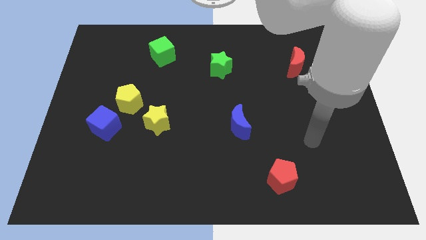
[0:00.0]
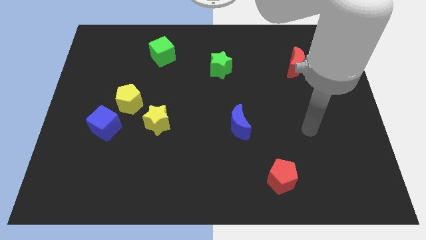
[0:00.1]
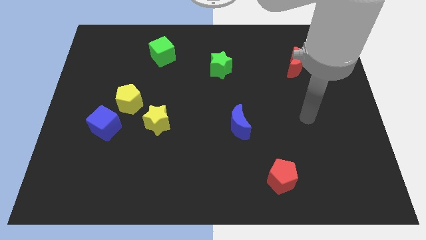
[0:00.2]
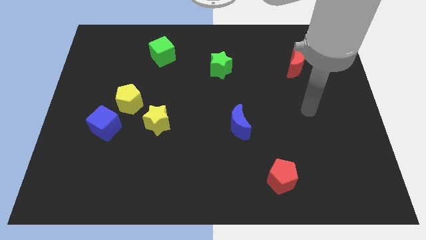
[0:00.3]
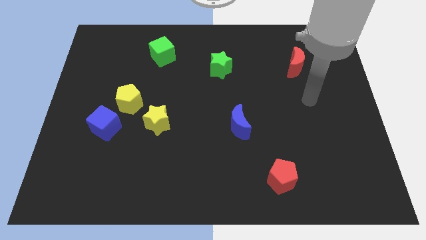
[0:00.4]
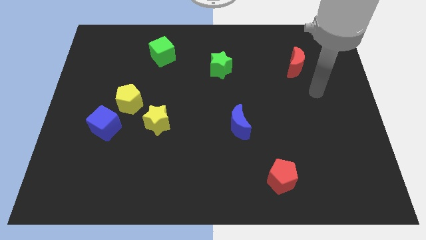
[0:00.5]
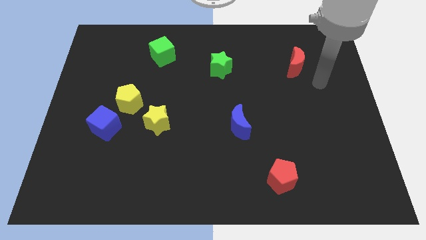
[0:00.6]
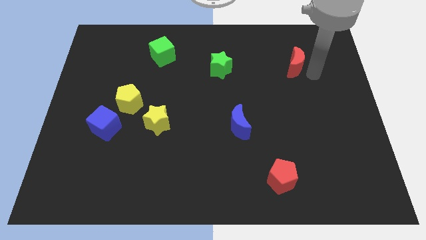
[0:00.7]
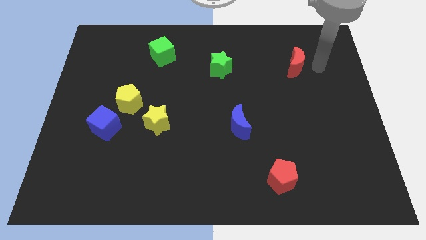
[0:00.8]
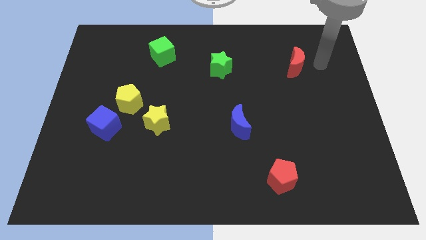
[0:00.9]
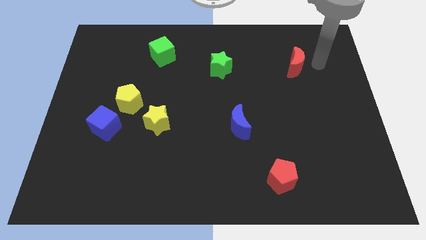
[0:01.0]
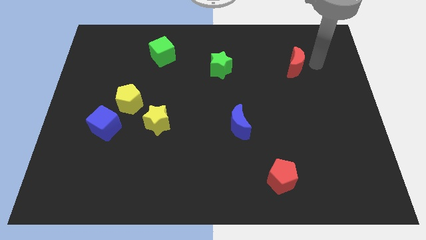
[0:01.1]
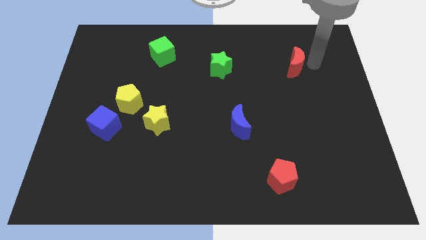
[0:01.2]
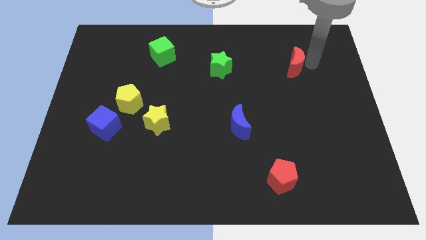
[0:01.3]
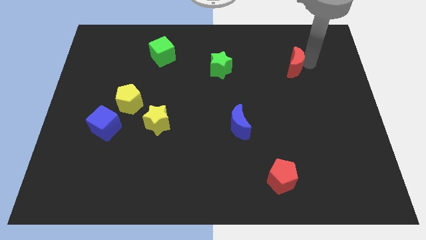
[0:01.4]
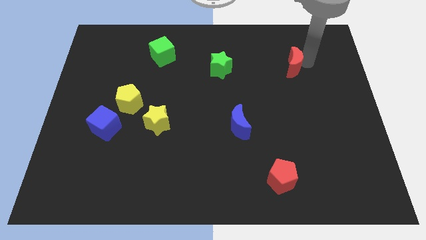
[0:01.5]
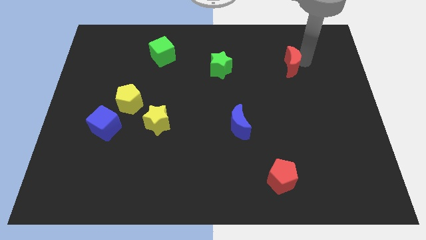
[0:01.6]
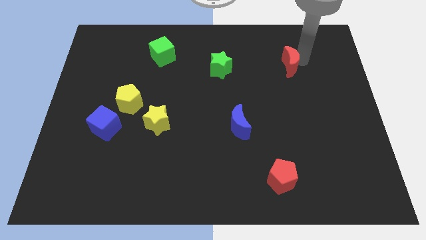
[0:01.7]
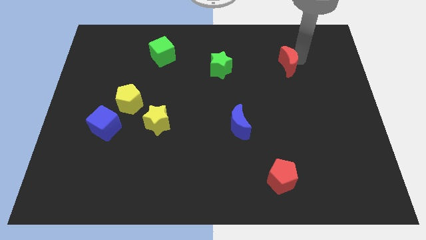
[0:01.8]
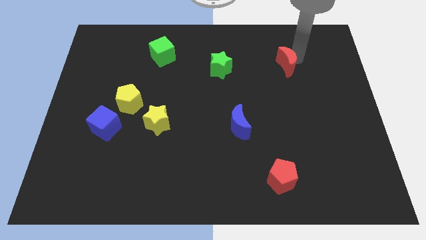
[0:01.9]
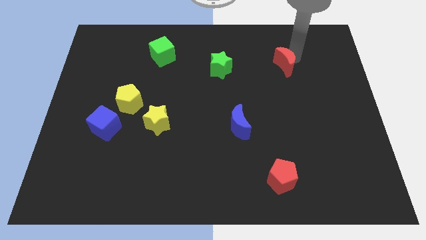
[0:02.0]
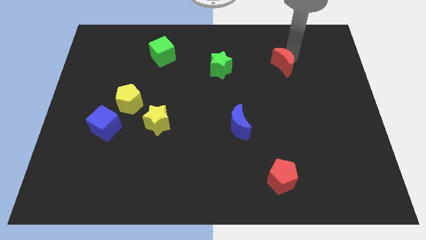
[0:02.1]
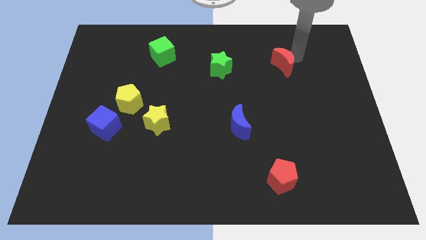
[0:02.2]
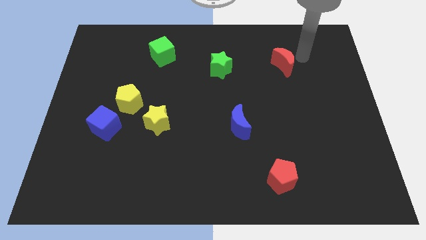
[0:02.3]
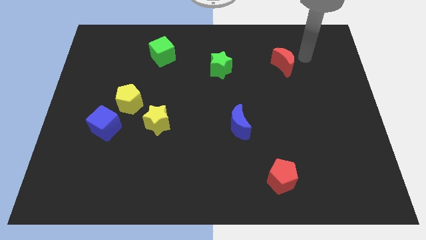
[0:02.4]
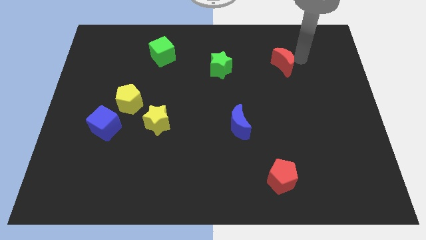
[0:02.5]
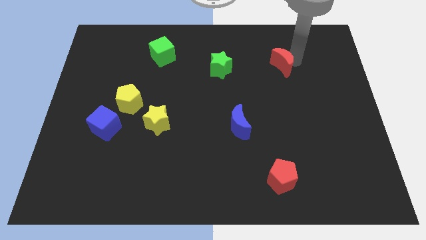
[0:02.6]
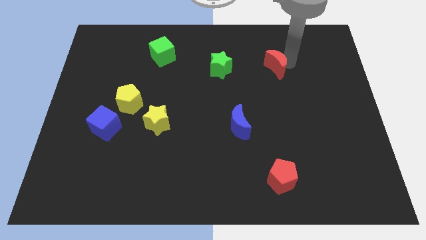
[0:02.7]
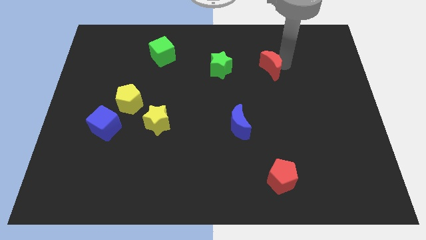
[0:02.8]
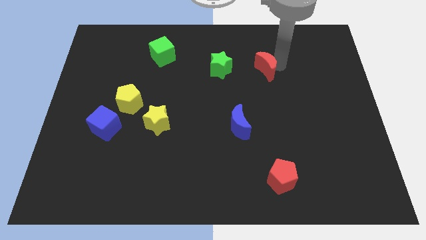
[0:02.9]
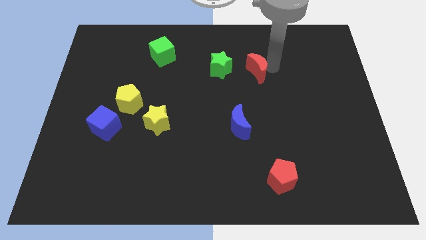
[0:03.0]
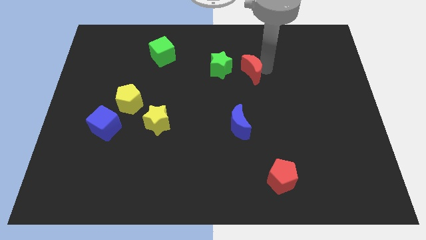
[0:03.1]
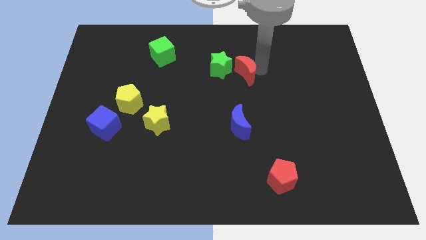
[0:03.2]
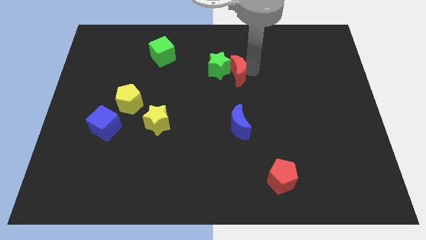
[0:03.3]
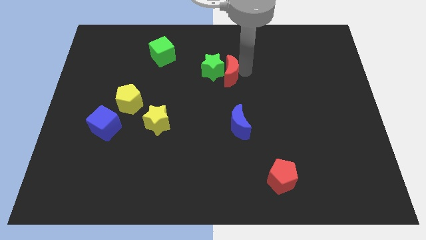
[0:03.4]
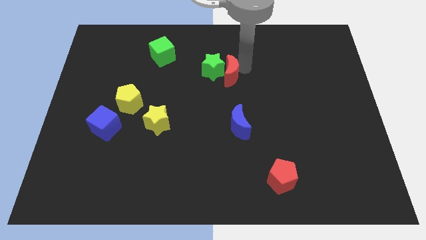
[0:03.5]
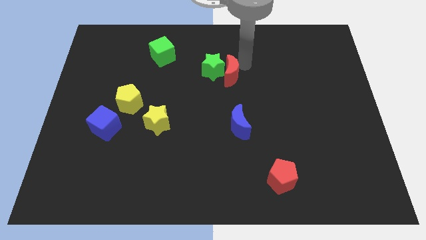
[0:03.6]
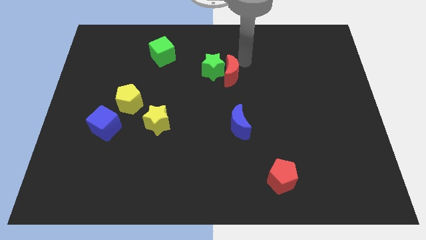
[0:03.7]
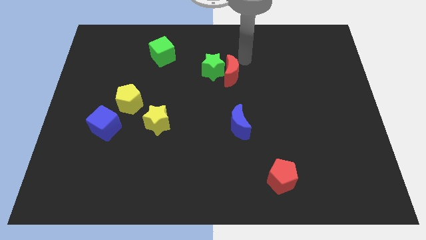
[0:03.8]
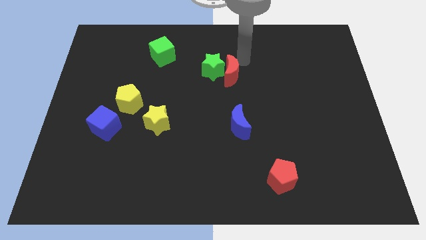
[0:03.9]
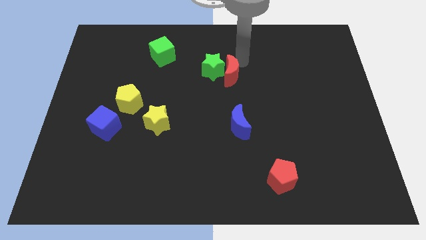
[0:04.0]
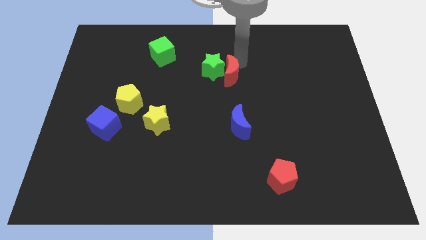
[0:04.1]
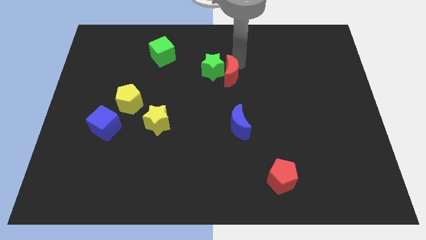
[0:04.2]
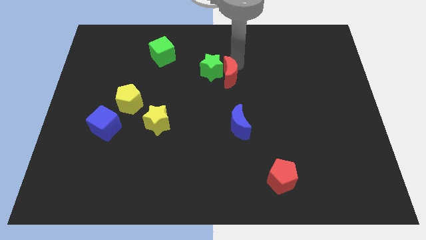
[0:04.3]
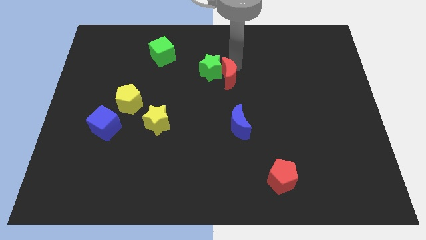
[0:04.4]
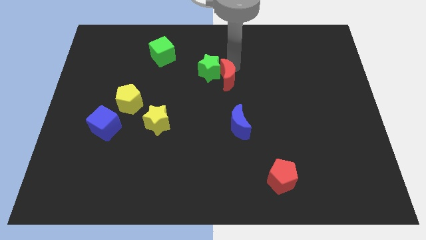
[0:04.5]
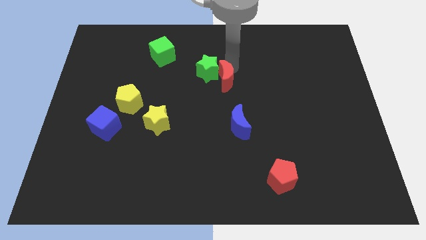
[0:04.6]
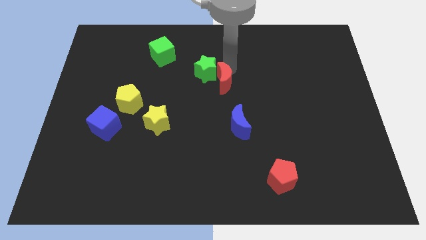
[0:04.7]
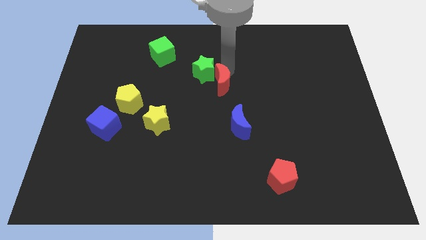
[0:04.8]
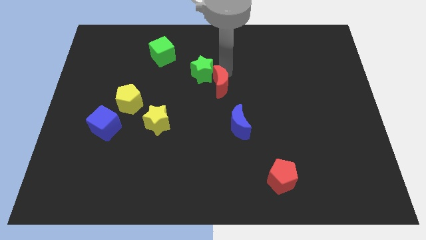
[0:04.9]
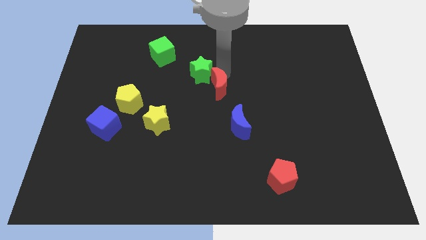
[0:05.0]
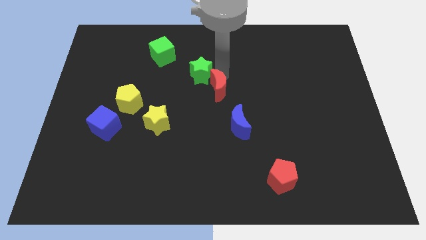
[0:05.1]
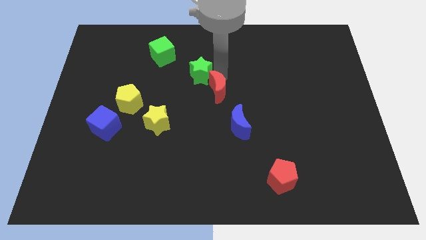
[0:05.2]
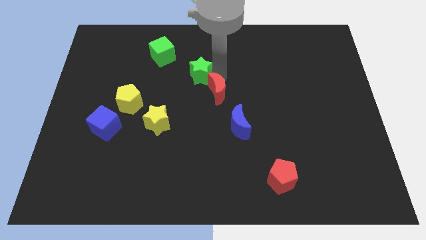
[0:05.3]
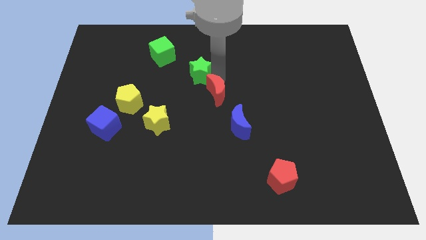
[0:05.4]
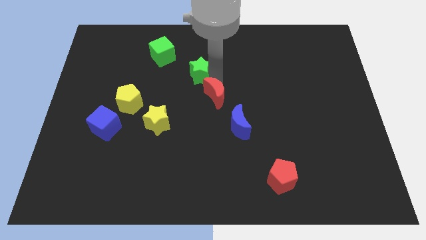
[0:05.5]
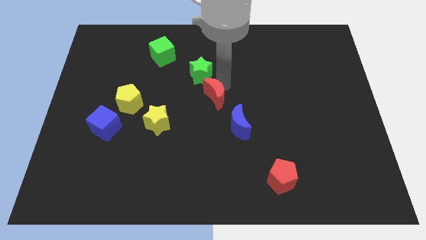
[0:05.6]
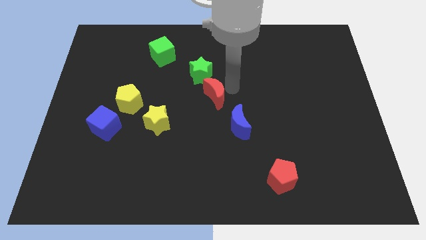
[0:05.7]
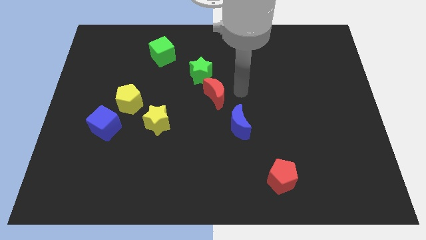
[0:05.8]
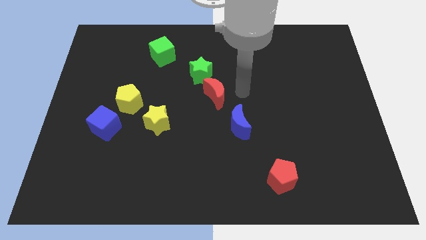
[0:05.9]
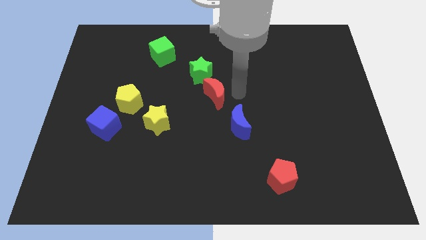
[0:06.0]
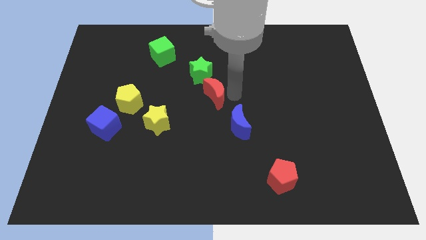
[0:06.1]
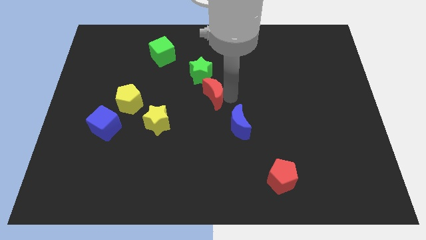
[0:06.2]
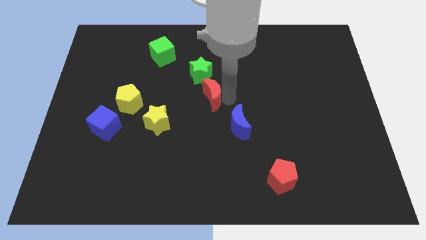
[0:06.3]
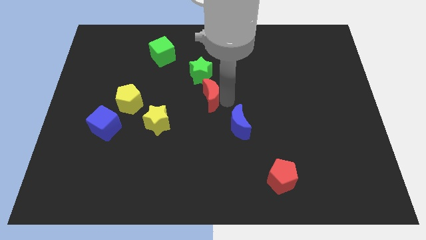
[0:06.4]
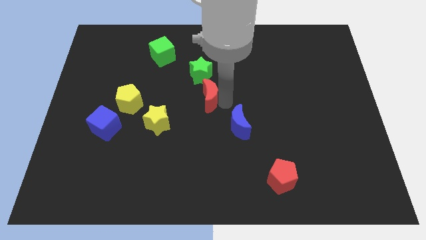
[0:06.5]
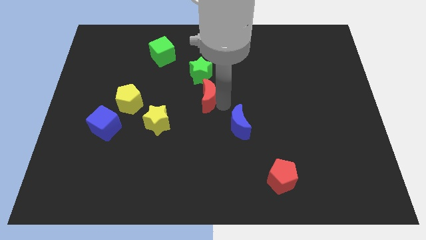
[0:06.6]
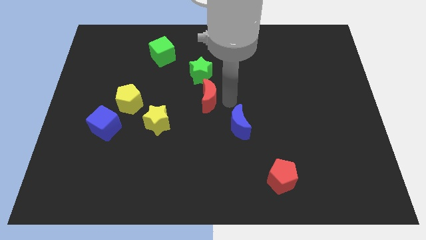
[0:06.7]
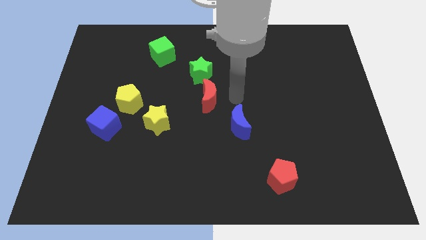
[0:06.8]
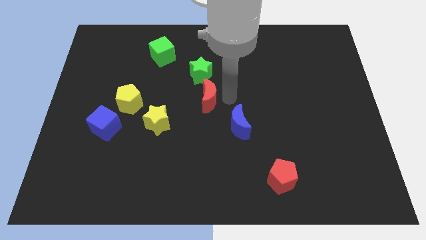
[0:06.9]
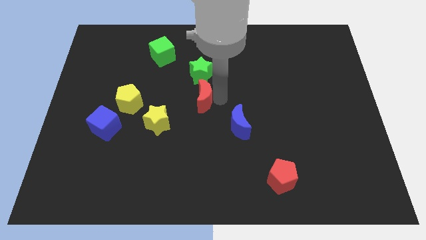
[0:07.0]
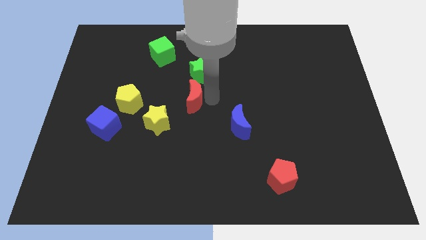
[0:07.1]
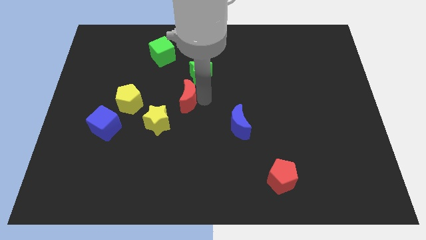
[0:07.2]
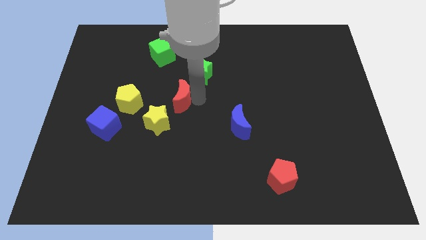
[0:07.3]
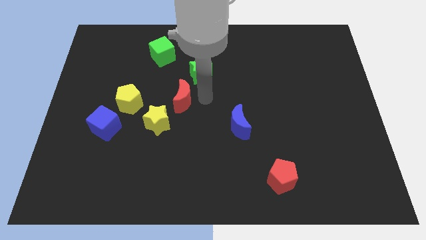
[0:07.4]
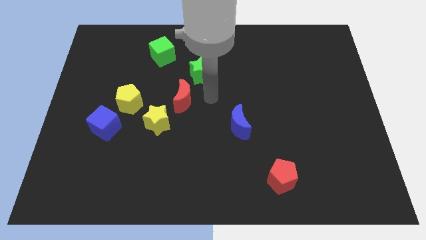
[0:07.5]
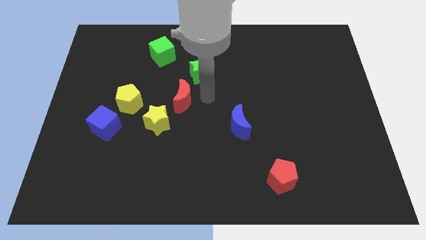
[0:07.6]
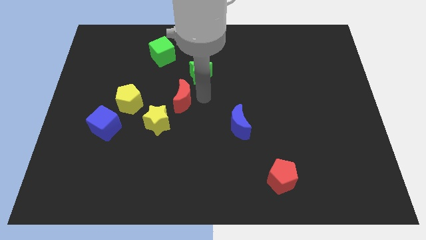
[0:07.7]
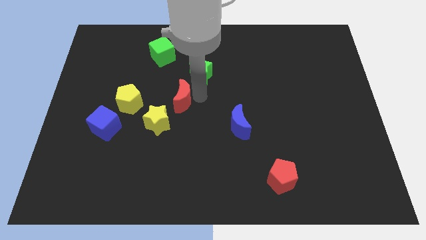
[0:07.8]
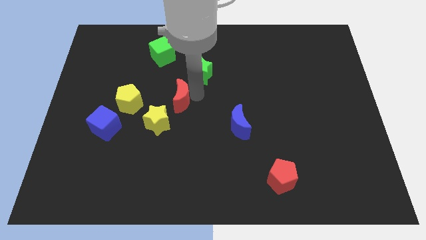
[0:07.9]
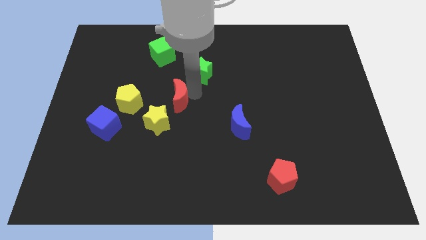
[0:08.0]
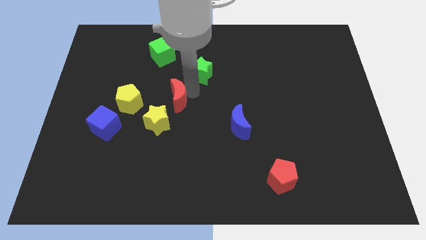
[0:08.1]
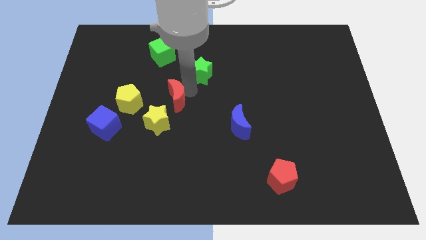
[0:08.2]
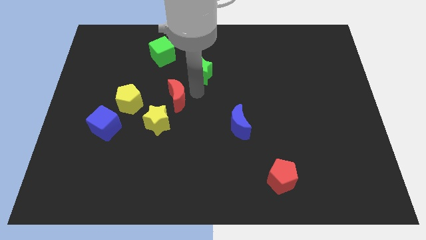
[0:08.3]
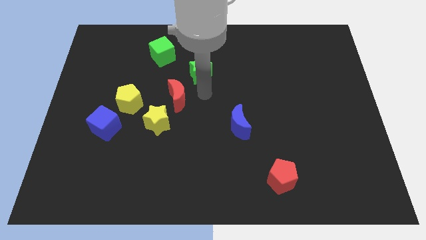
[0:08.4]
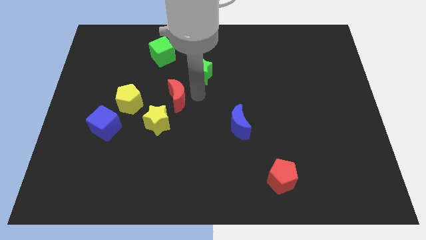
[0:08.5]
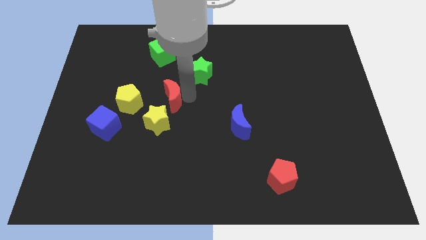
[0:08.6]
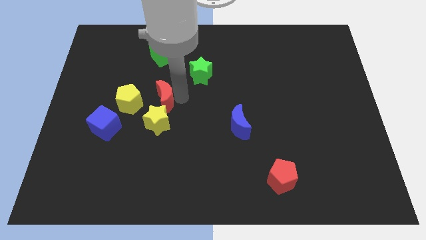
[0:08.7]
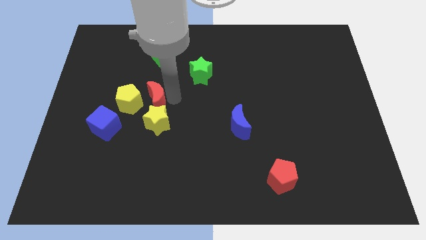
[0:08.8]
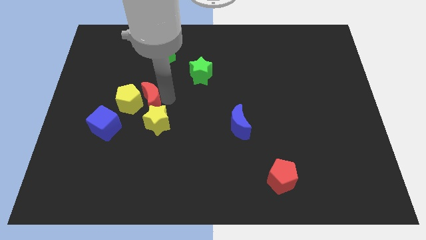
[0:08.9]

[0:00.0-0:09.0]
slide the red moon towards the yellow pentagon
